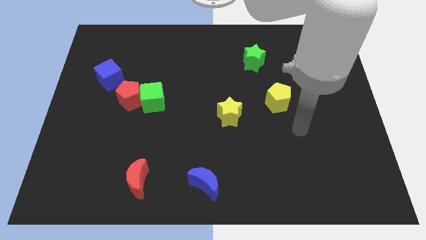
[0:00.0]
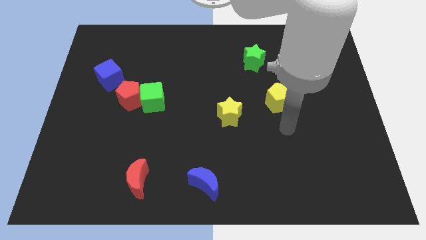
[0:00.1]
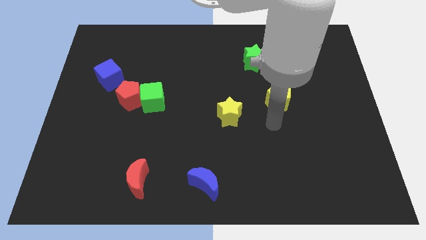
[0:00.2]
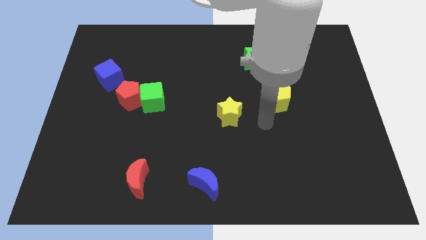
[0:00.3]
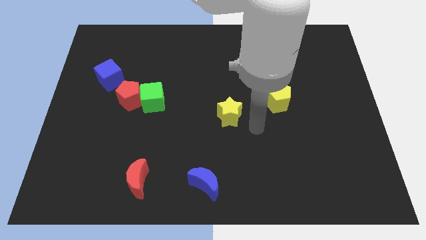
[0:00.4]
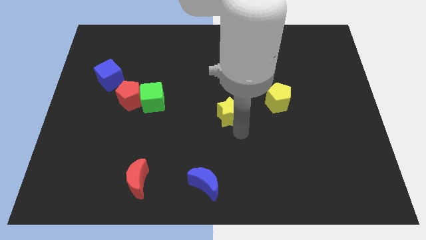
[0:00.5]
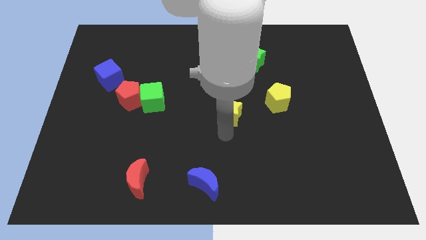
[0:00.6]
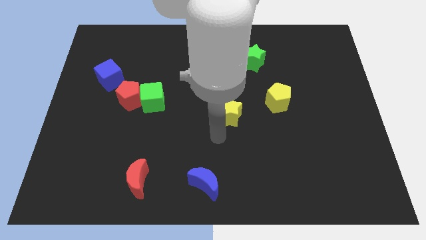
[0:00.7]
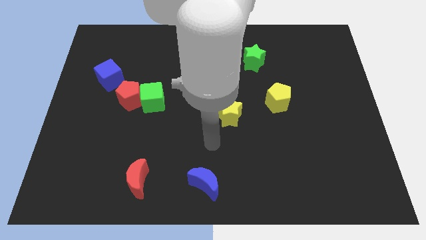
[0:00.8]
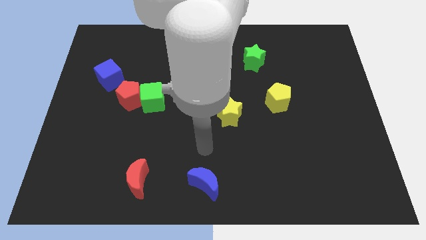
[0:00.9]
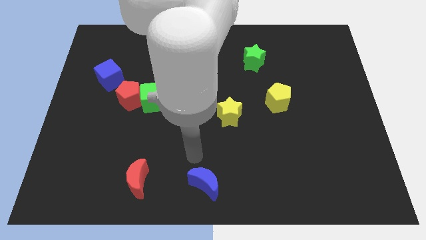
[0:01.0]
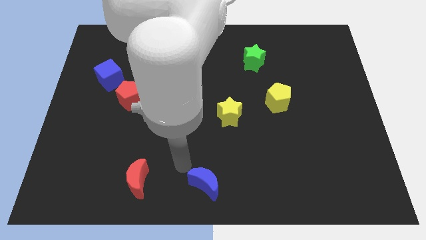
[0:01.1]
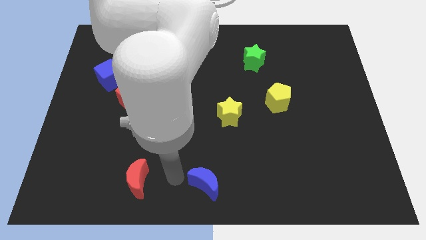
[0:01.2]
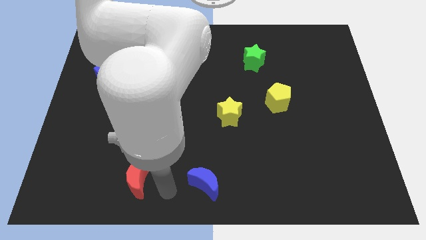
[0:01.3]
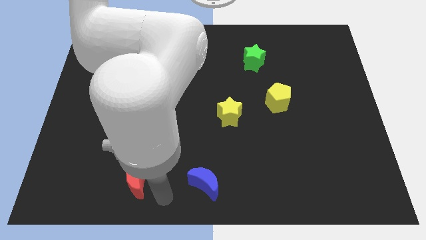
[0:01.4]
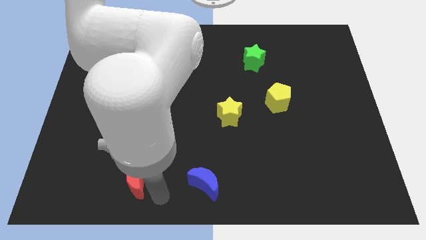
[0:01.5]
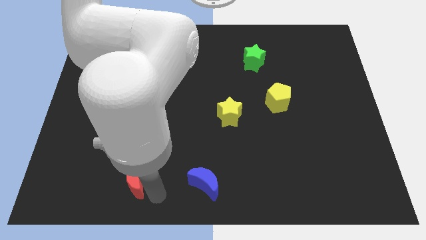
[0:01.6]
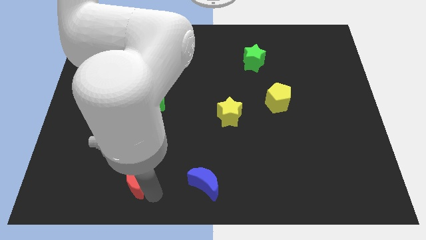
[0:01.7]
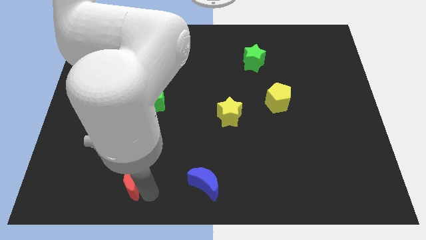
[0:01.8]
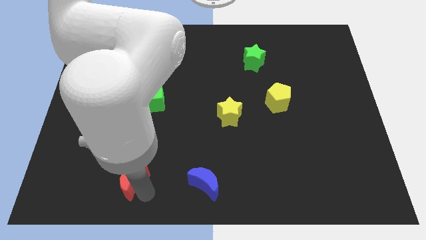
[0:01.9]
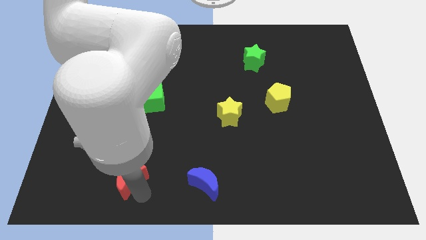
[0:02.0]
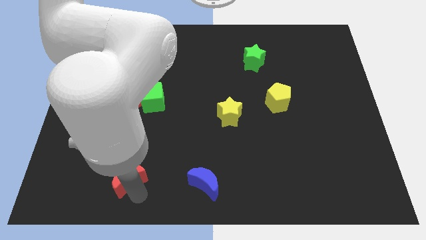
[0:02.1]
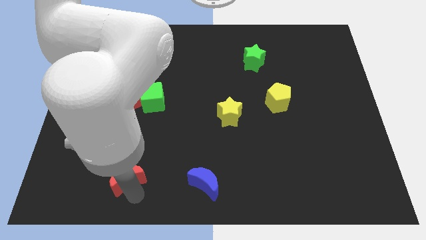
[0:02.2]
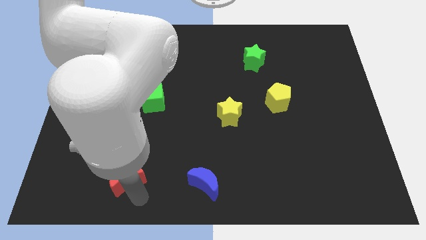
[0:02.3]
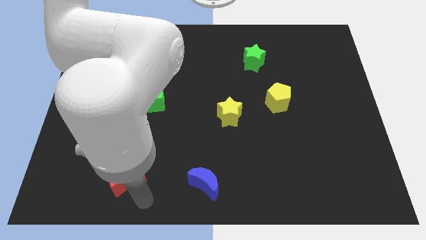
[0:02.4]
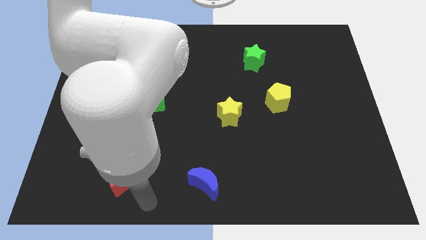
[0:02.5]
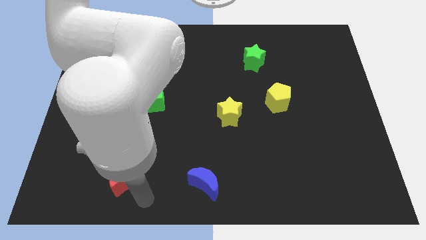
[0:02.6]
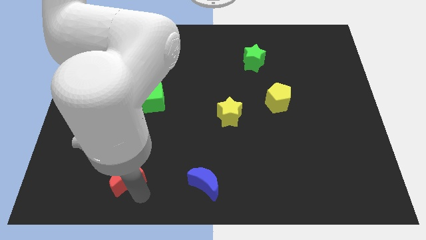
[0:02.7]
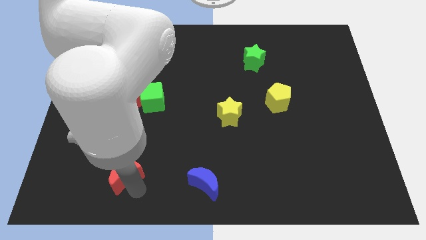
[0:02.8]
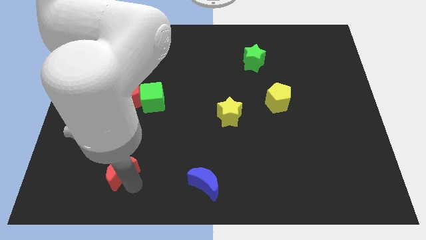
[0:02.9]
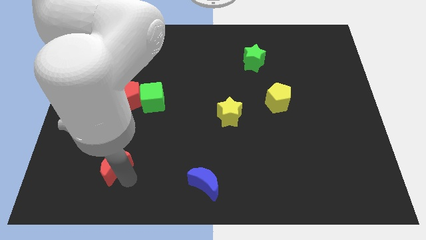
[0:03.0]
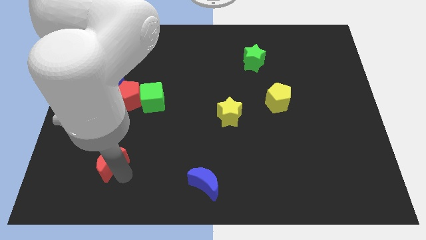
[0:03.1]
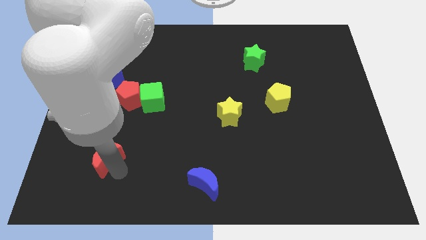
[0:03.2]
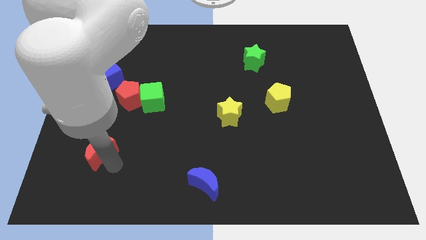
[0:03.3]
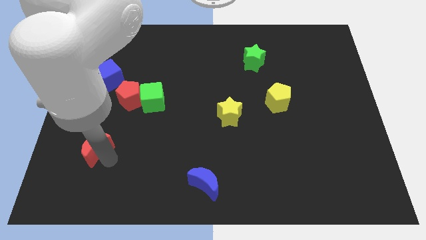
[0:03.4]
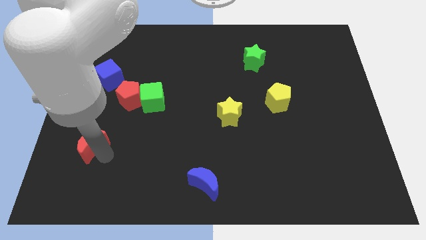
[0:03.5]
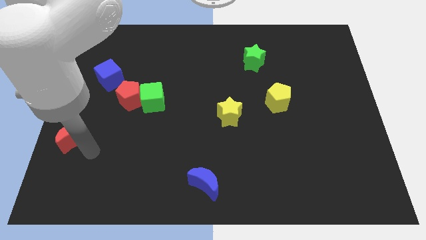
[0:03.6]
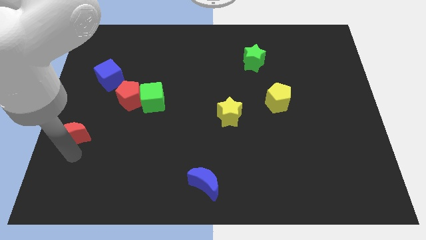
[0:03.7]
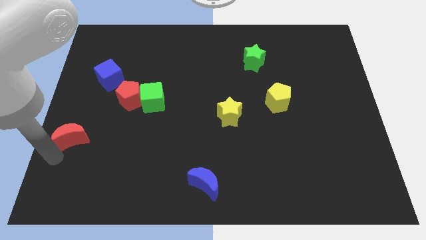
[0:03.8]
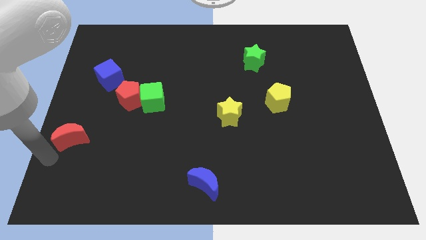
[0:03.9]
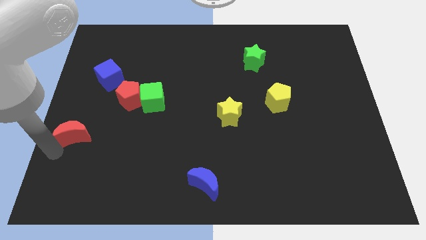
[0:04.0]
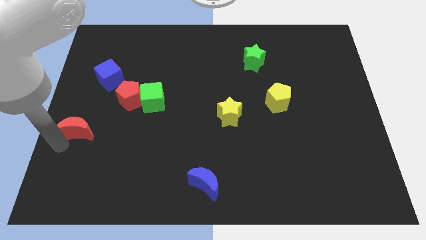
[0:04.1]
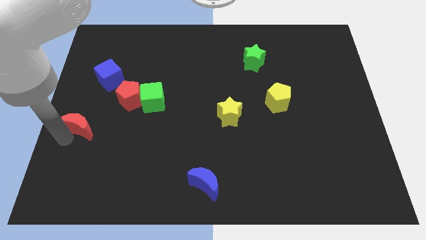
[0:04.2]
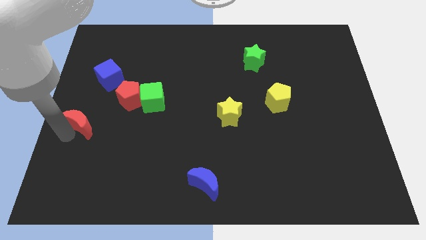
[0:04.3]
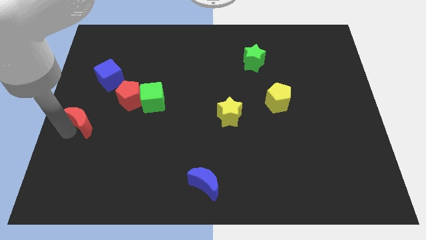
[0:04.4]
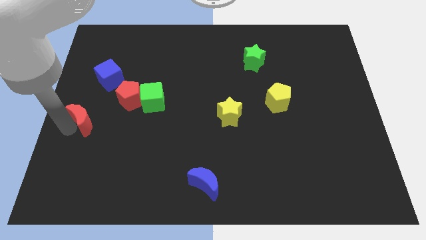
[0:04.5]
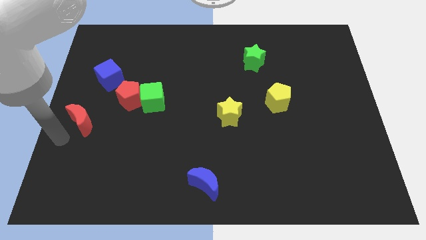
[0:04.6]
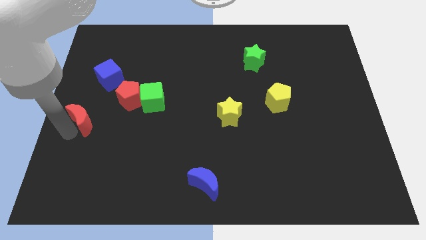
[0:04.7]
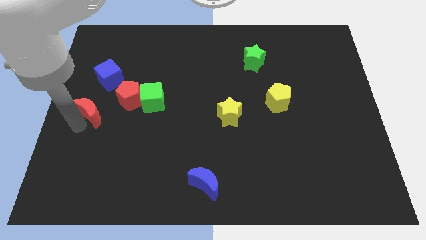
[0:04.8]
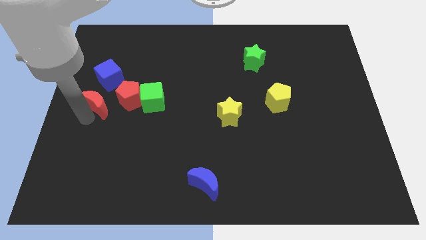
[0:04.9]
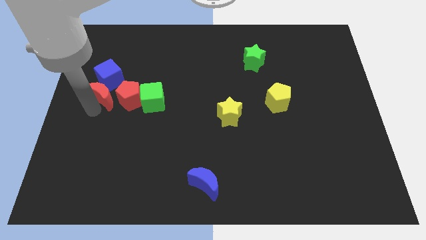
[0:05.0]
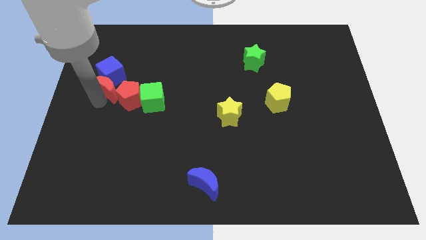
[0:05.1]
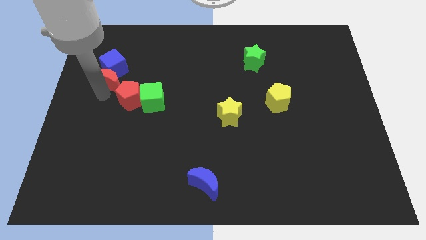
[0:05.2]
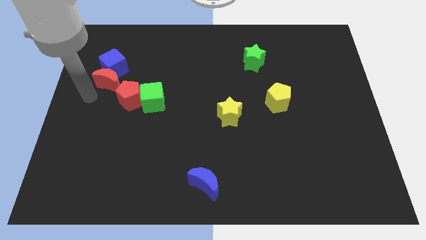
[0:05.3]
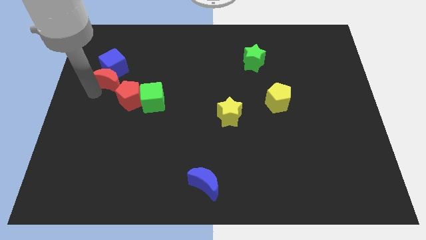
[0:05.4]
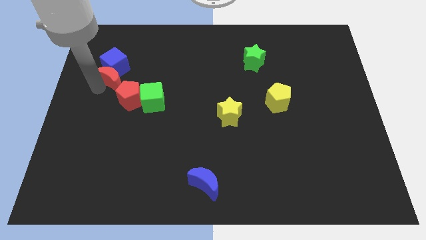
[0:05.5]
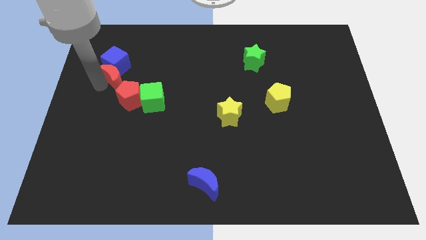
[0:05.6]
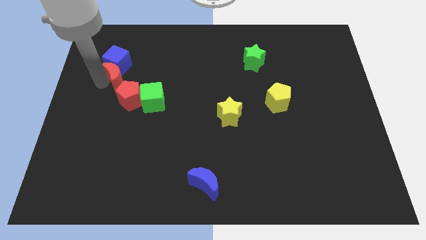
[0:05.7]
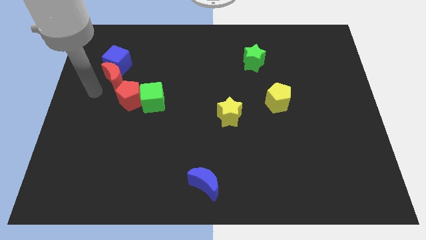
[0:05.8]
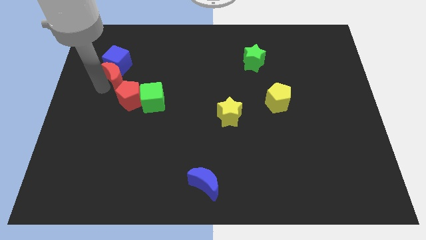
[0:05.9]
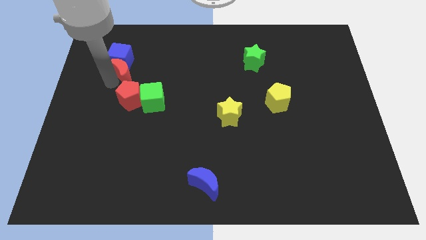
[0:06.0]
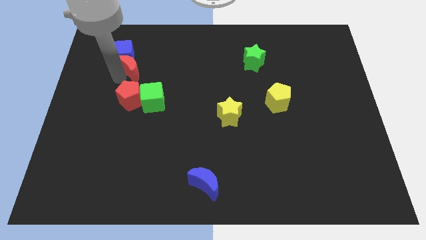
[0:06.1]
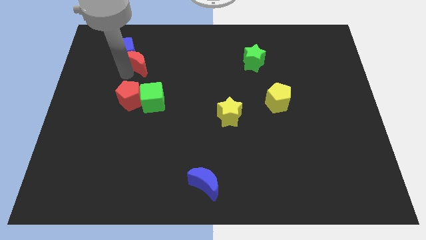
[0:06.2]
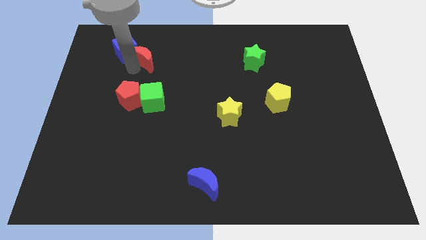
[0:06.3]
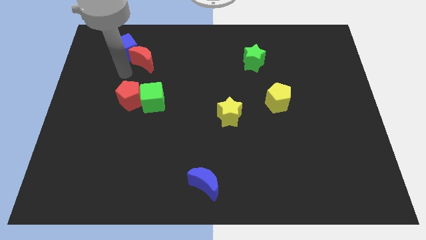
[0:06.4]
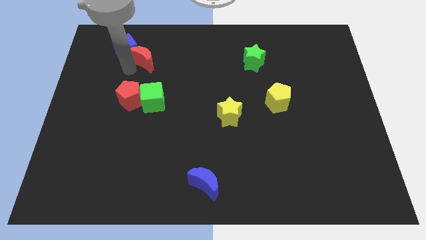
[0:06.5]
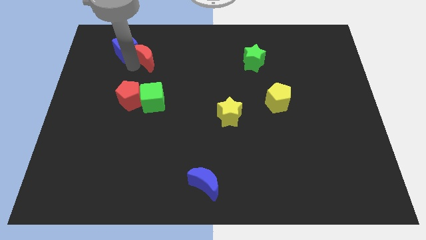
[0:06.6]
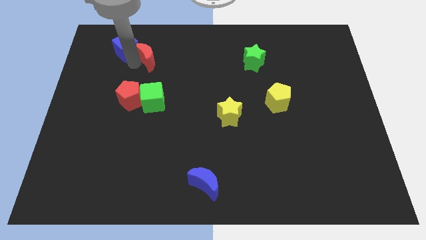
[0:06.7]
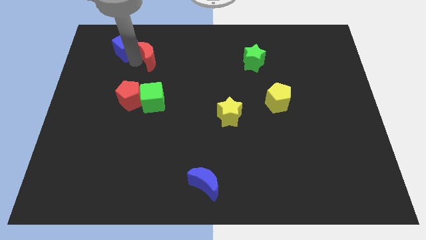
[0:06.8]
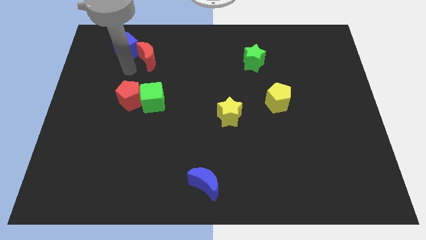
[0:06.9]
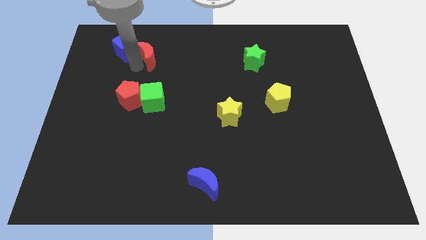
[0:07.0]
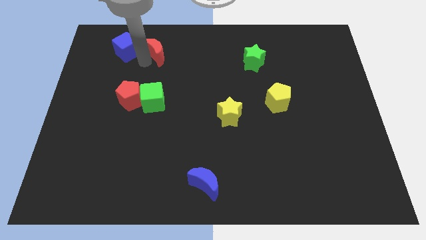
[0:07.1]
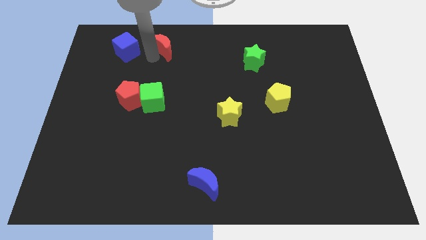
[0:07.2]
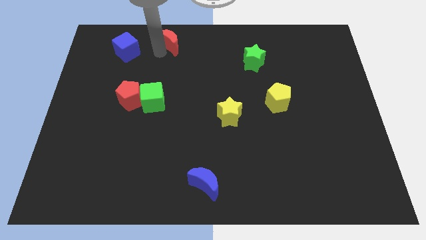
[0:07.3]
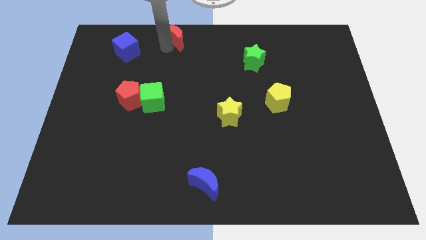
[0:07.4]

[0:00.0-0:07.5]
move the red moon to the towards your base

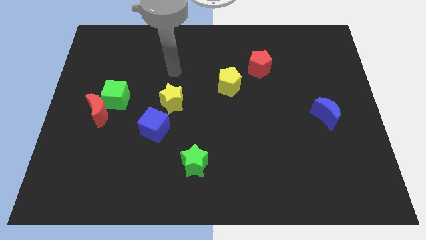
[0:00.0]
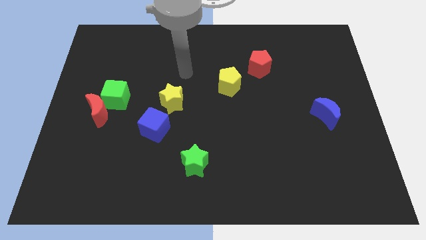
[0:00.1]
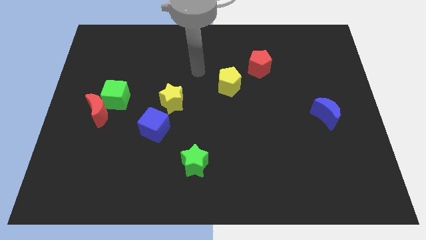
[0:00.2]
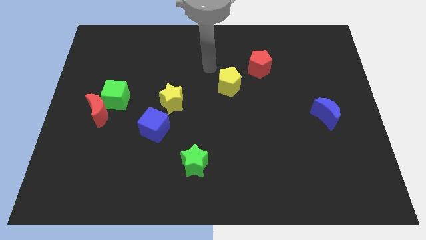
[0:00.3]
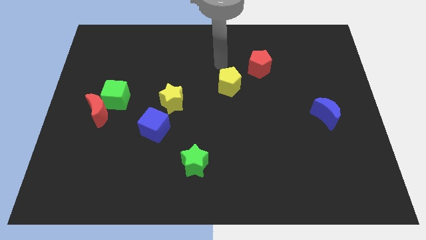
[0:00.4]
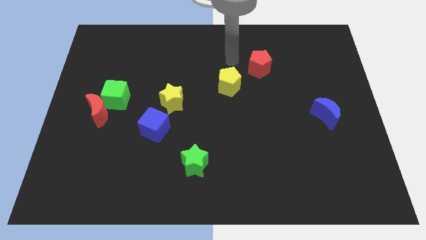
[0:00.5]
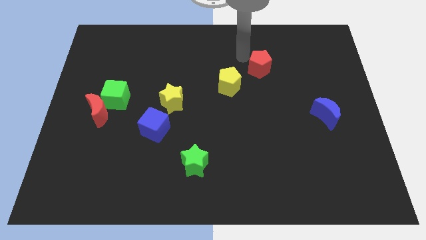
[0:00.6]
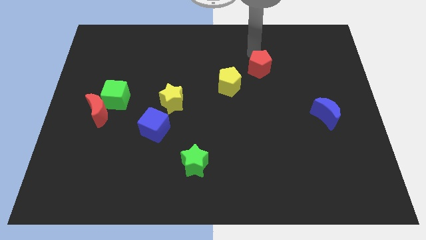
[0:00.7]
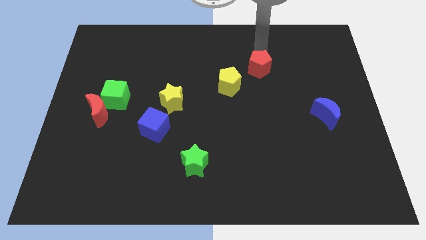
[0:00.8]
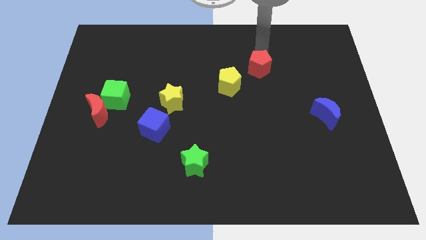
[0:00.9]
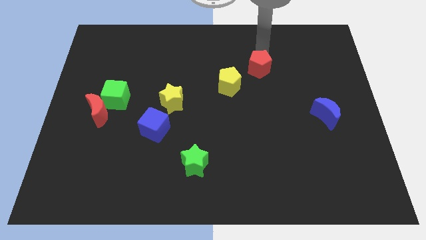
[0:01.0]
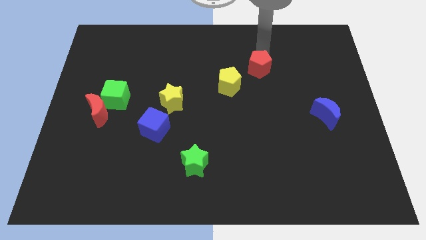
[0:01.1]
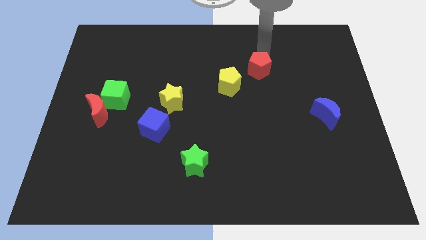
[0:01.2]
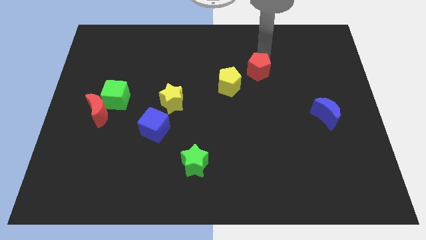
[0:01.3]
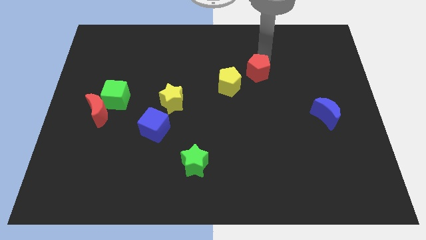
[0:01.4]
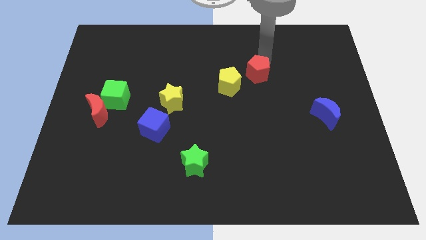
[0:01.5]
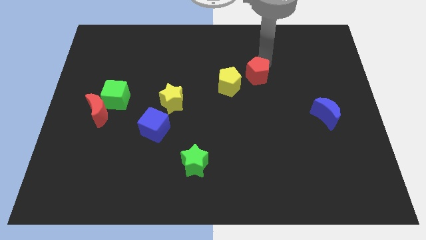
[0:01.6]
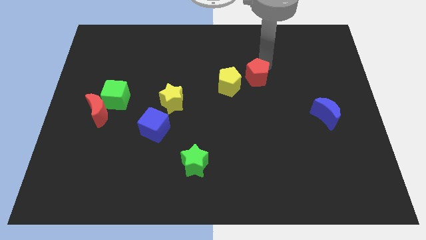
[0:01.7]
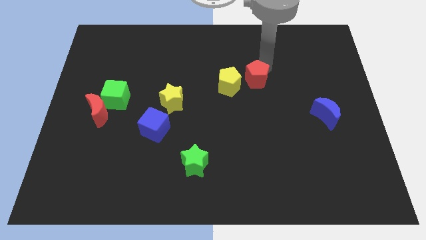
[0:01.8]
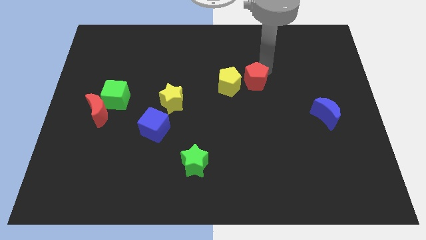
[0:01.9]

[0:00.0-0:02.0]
slide the red pentagon to the middle of the board
